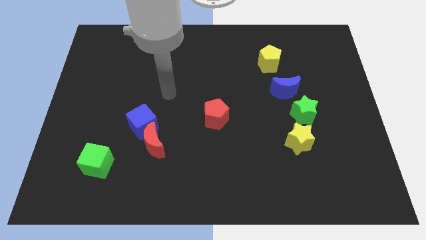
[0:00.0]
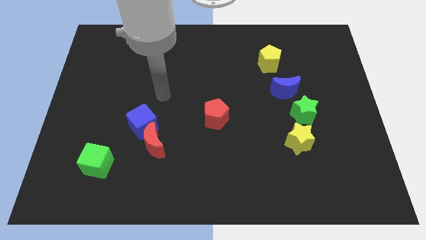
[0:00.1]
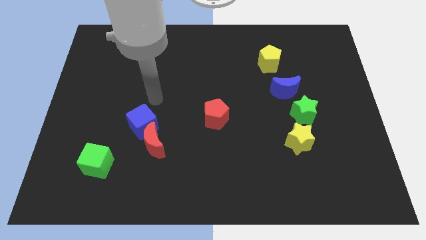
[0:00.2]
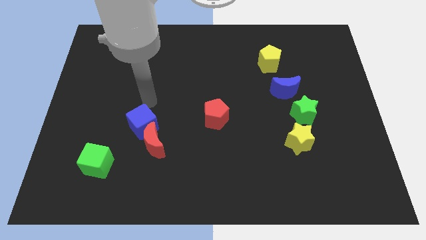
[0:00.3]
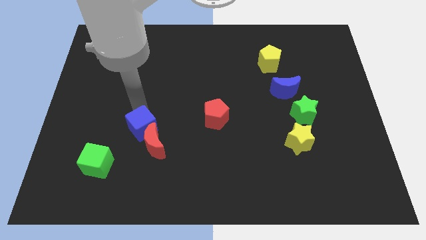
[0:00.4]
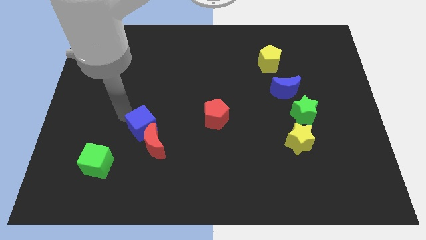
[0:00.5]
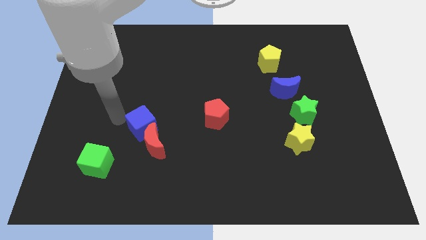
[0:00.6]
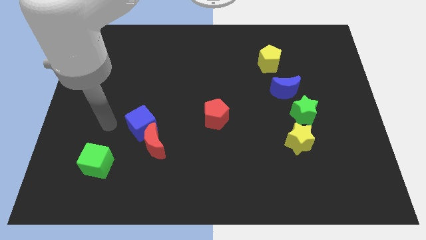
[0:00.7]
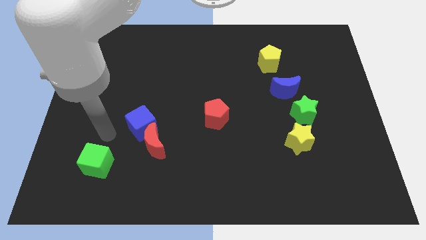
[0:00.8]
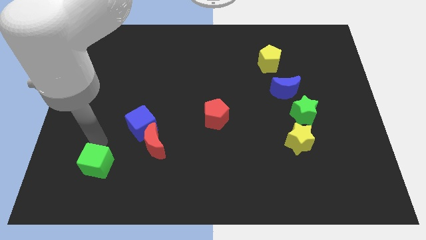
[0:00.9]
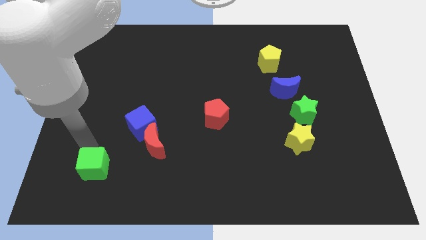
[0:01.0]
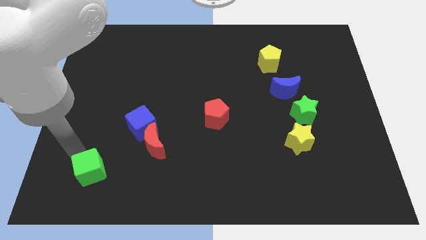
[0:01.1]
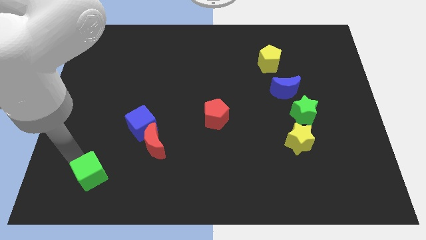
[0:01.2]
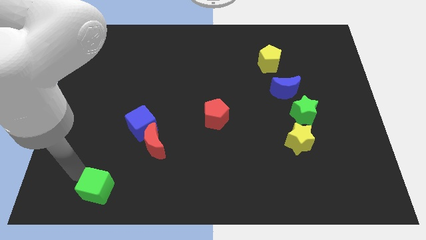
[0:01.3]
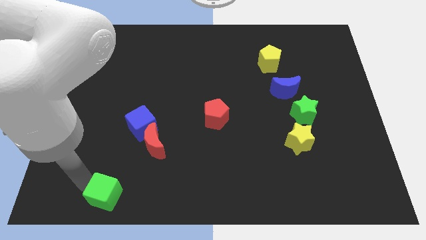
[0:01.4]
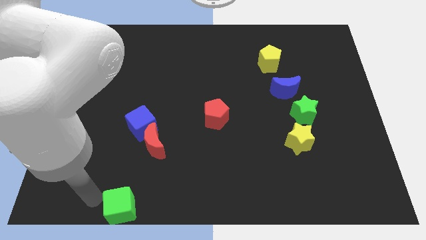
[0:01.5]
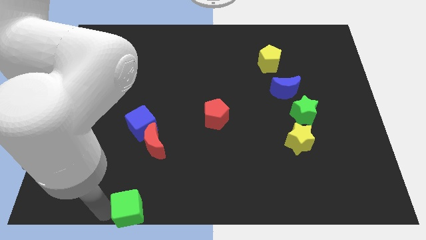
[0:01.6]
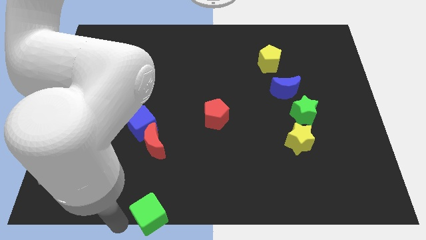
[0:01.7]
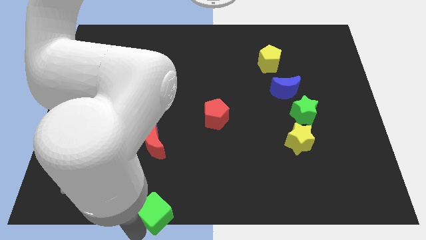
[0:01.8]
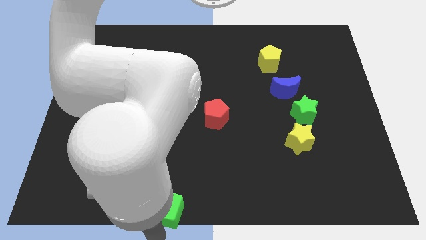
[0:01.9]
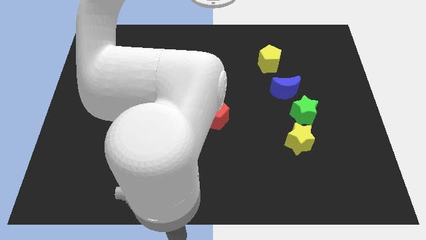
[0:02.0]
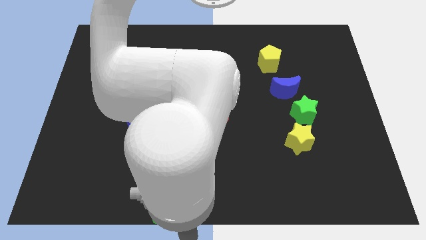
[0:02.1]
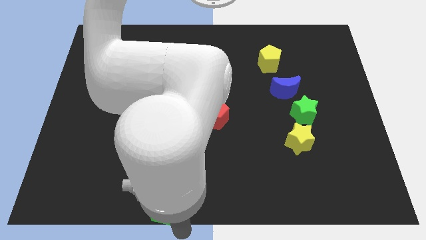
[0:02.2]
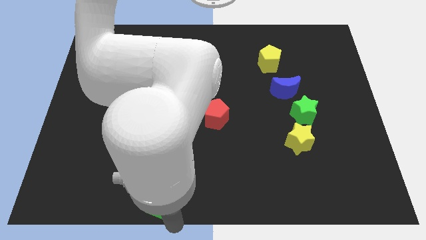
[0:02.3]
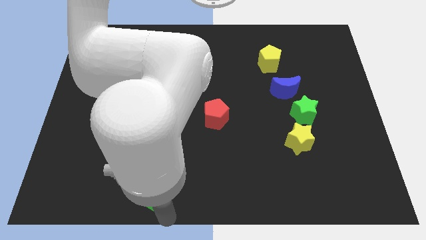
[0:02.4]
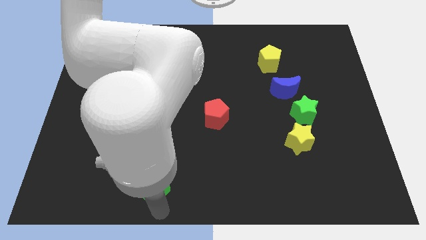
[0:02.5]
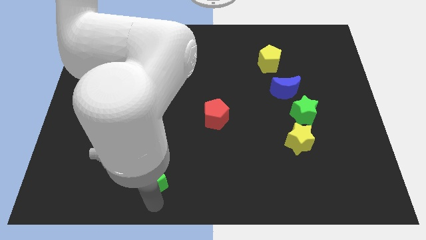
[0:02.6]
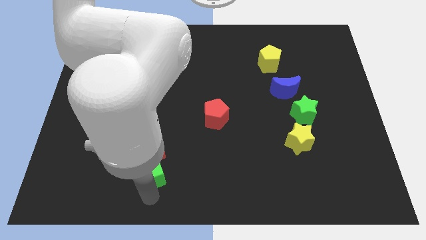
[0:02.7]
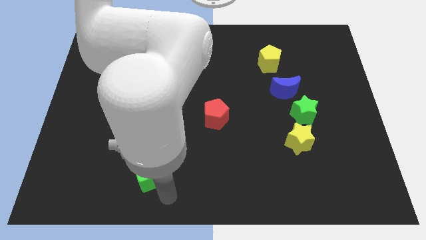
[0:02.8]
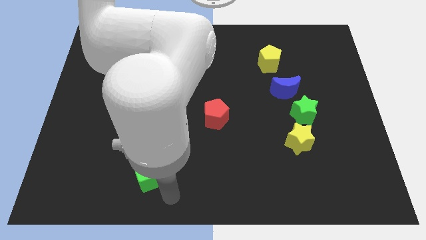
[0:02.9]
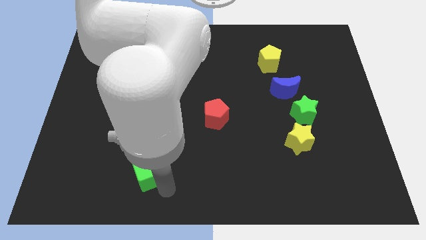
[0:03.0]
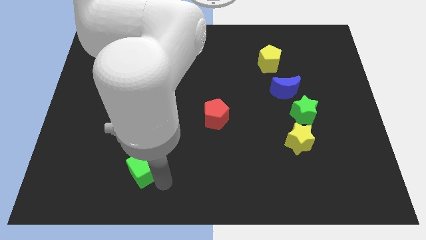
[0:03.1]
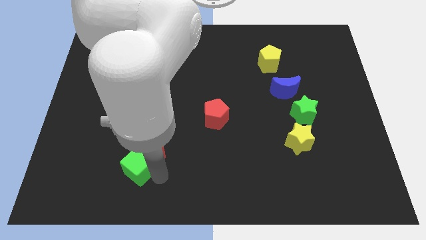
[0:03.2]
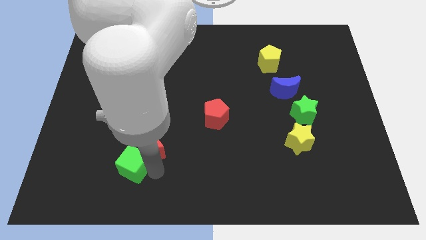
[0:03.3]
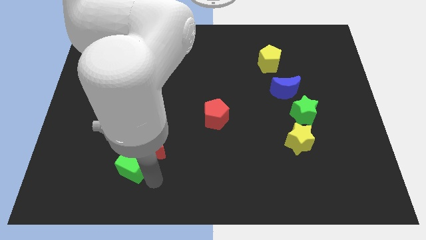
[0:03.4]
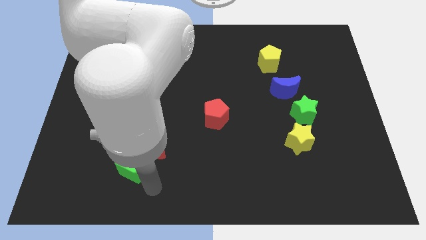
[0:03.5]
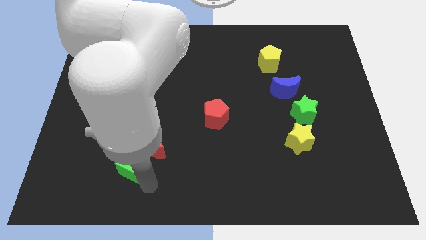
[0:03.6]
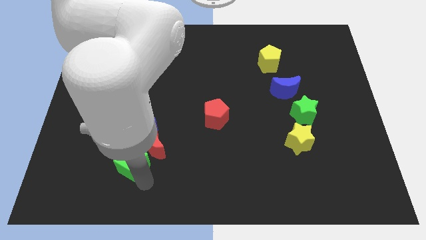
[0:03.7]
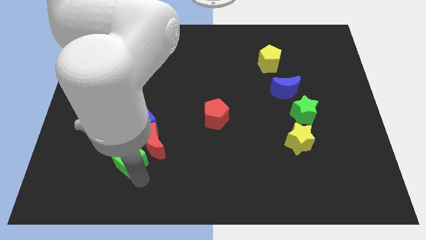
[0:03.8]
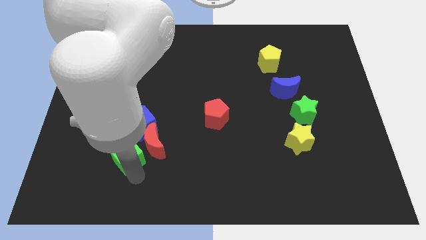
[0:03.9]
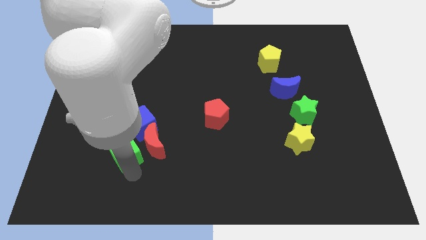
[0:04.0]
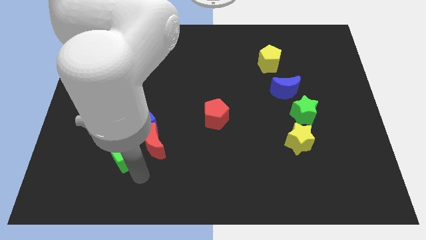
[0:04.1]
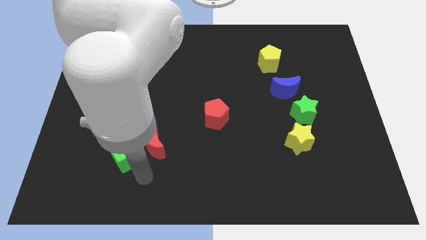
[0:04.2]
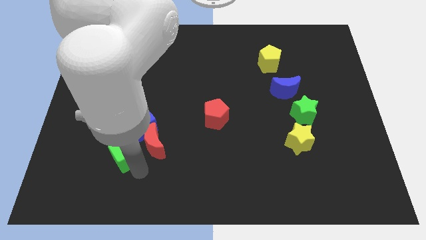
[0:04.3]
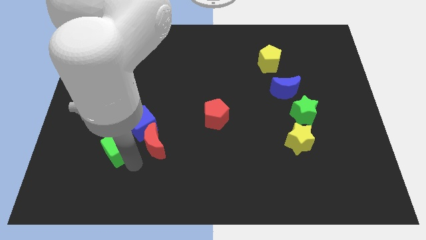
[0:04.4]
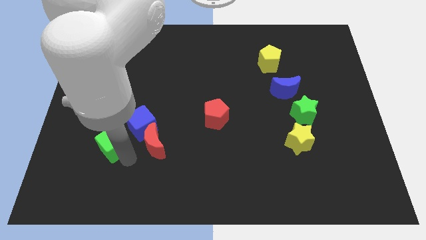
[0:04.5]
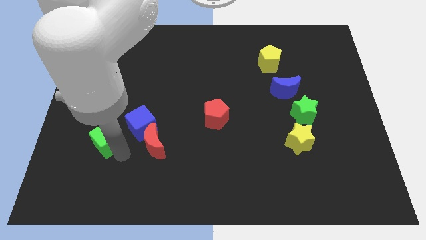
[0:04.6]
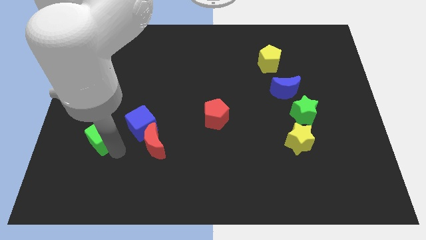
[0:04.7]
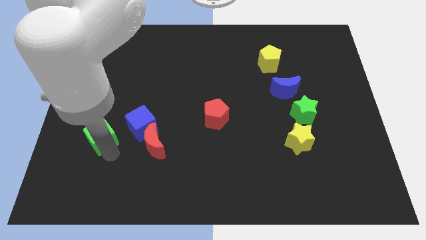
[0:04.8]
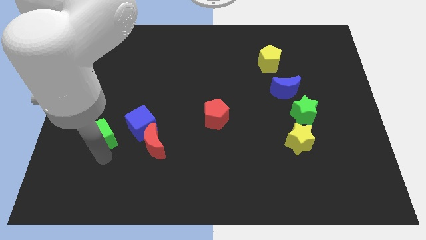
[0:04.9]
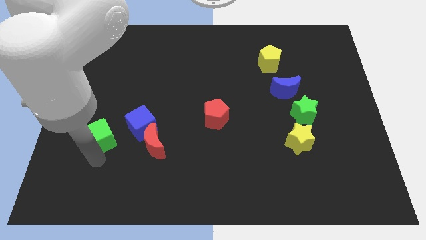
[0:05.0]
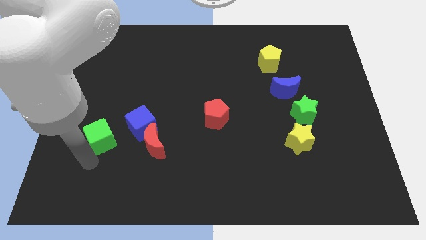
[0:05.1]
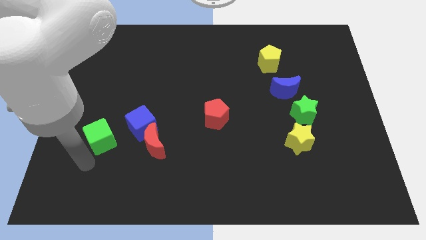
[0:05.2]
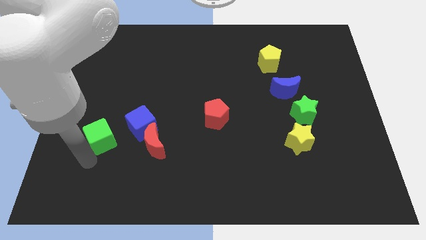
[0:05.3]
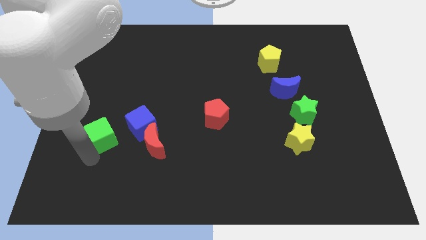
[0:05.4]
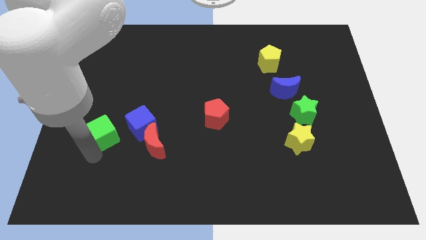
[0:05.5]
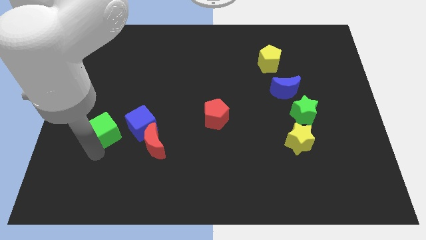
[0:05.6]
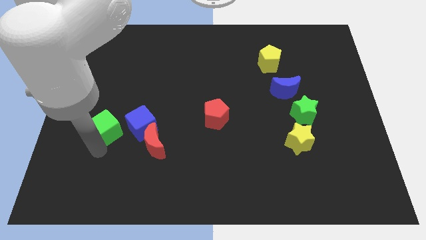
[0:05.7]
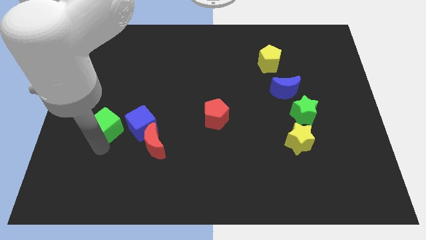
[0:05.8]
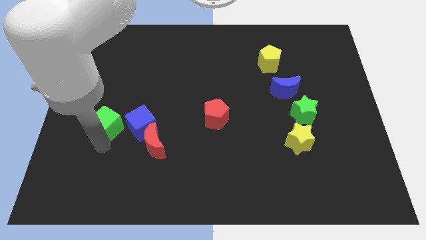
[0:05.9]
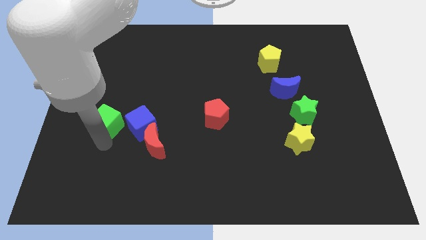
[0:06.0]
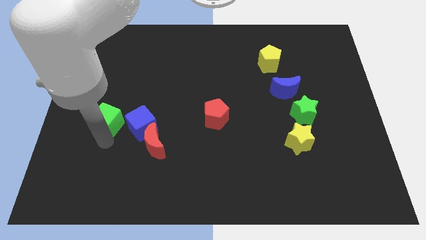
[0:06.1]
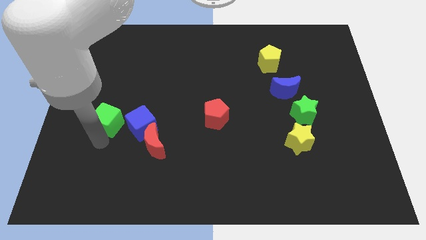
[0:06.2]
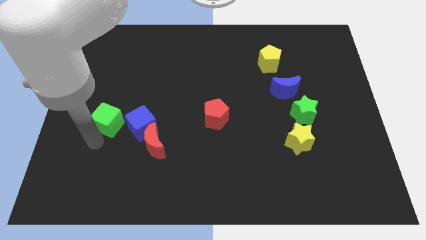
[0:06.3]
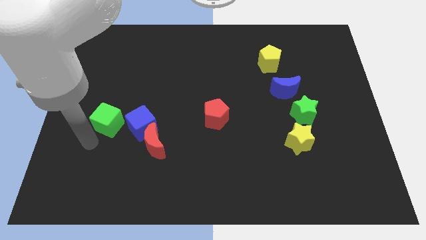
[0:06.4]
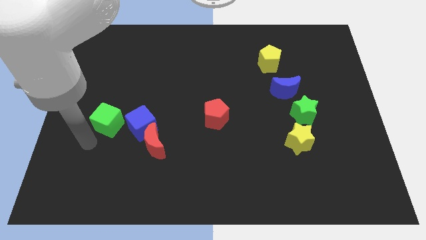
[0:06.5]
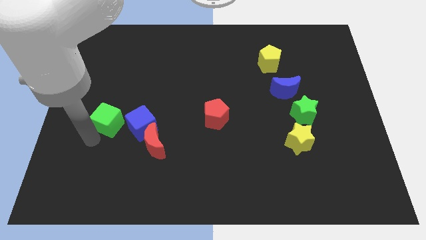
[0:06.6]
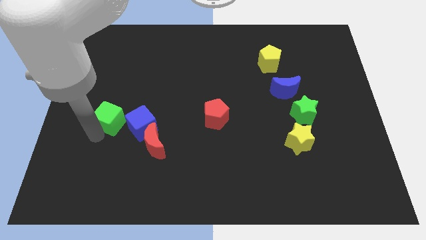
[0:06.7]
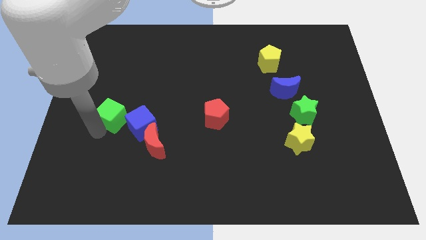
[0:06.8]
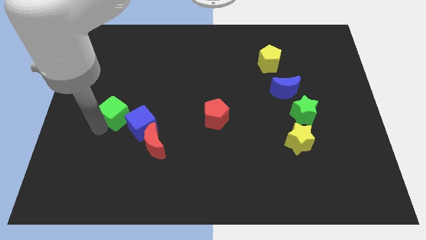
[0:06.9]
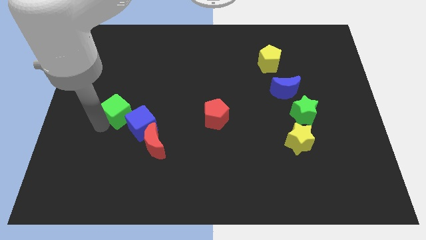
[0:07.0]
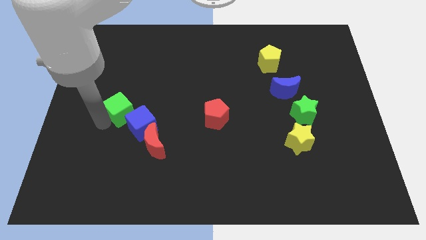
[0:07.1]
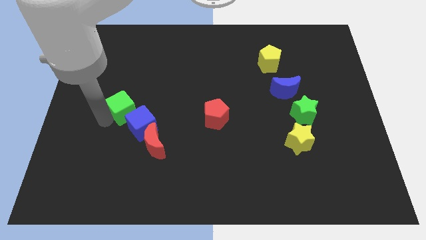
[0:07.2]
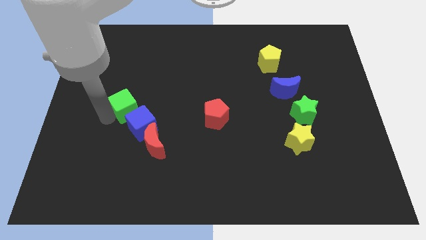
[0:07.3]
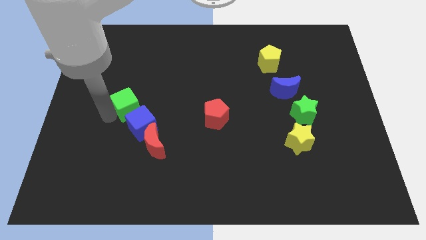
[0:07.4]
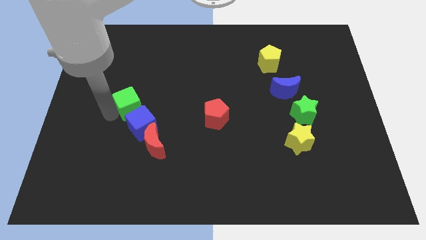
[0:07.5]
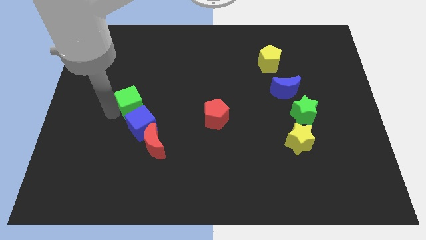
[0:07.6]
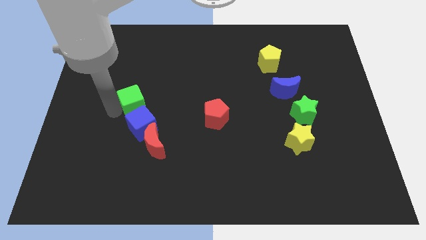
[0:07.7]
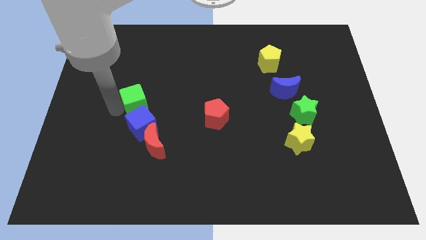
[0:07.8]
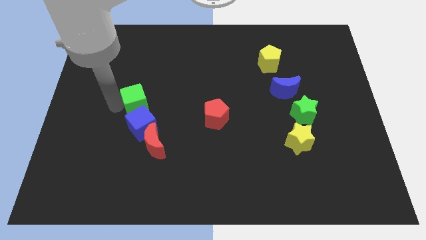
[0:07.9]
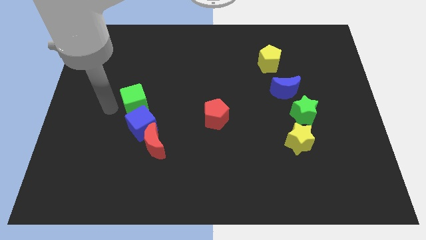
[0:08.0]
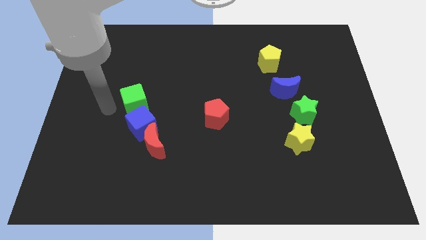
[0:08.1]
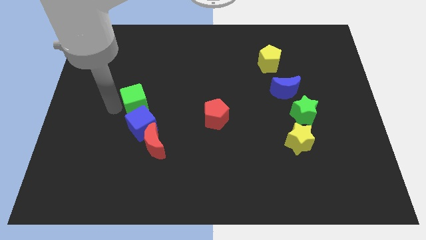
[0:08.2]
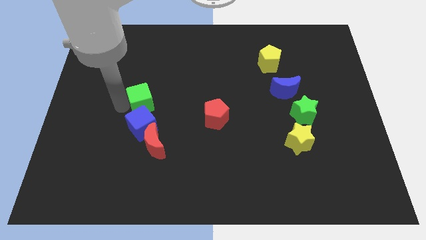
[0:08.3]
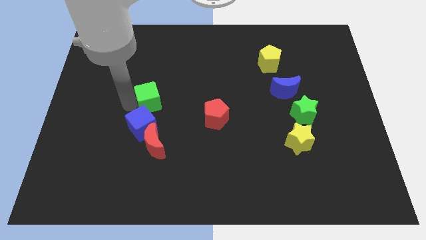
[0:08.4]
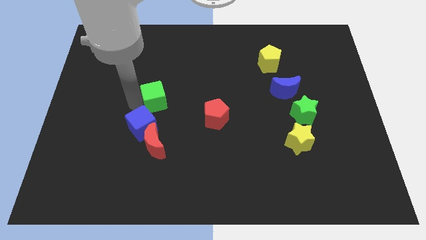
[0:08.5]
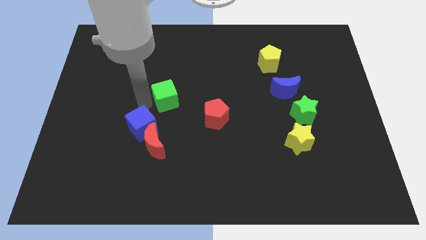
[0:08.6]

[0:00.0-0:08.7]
push the green cube diagonally upwards and to the right
